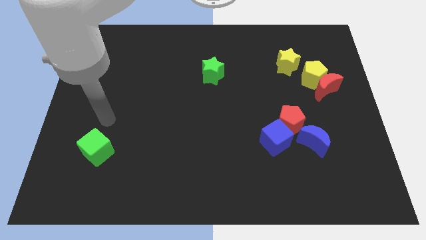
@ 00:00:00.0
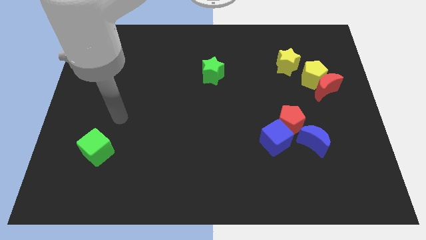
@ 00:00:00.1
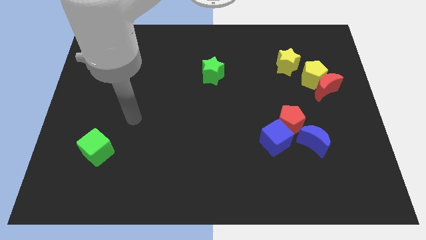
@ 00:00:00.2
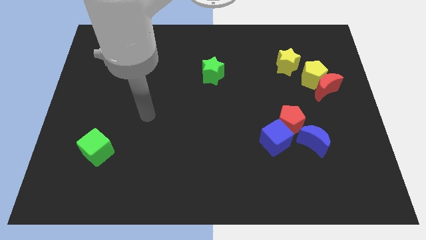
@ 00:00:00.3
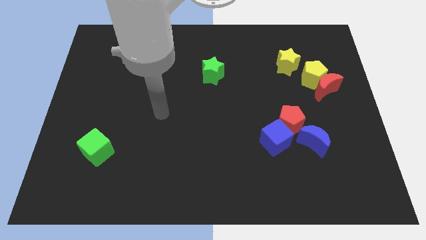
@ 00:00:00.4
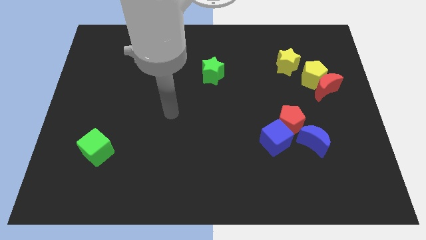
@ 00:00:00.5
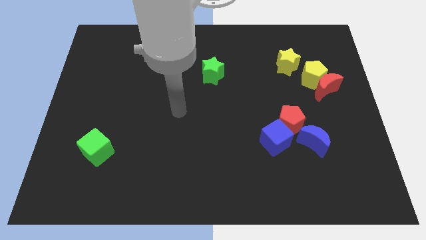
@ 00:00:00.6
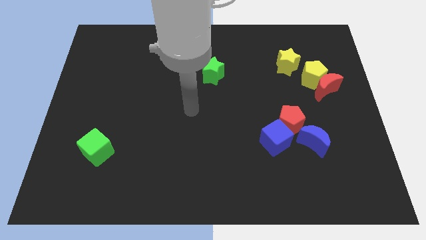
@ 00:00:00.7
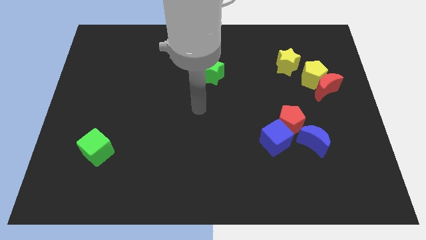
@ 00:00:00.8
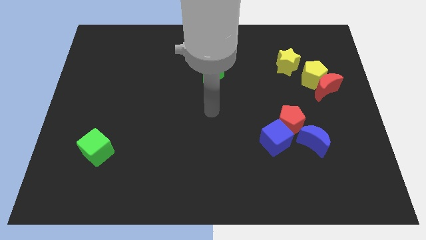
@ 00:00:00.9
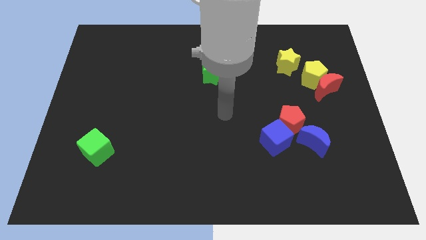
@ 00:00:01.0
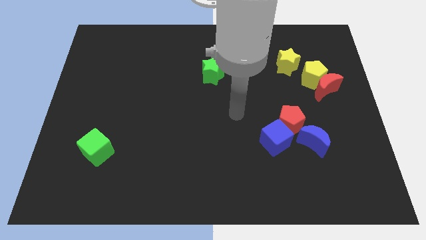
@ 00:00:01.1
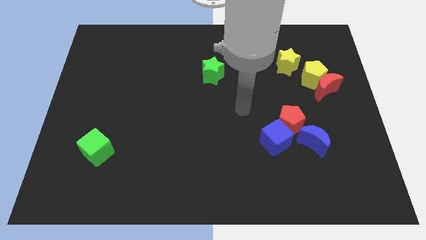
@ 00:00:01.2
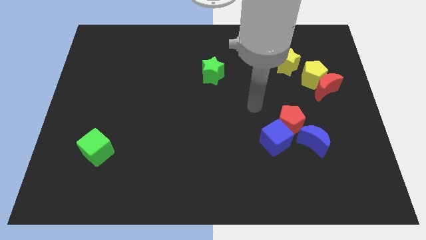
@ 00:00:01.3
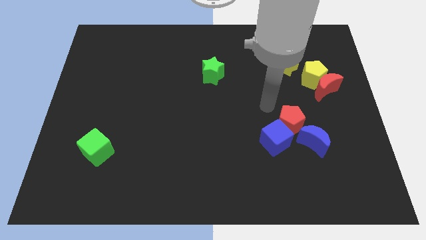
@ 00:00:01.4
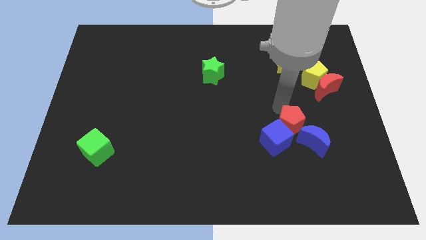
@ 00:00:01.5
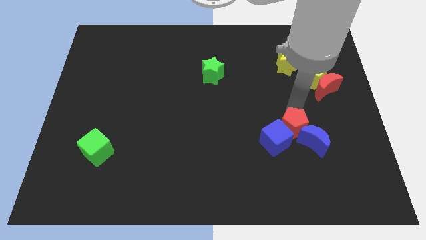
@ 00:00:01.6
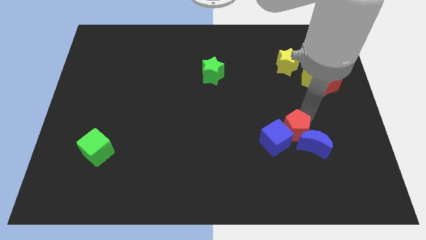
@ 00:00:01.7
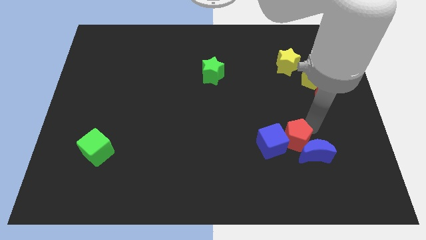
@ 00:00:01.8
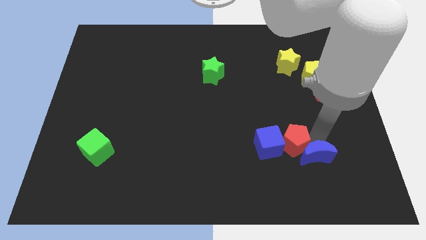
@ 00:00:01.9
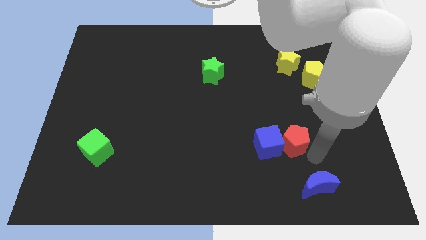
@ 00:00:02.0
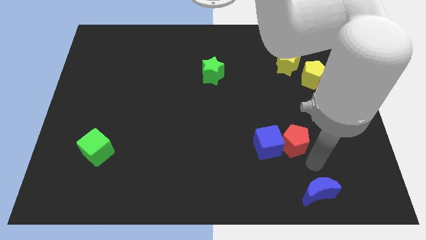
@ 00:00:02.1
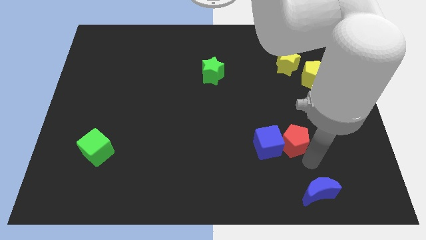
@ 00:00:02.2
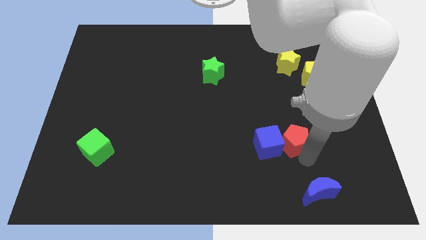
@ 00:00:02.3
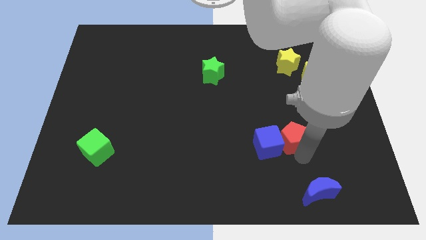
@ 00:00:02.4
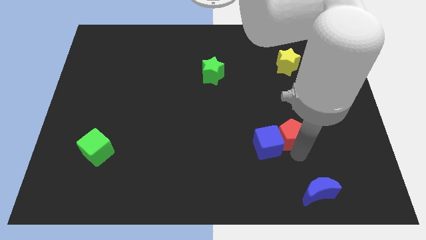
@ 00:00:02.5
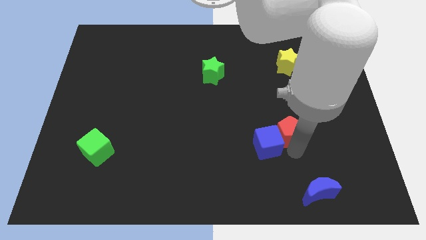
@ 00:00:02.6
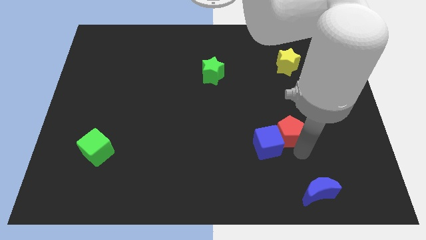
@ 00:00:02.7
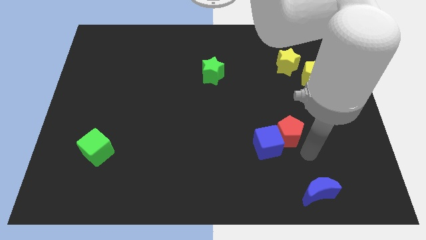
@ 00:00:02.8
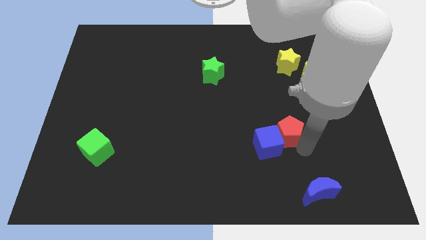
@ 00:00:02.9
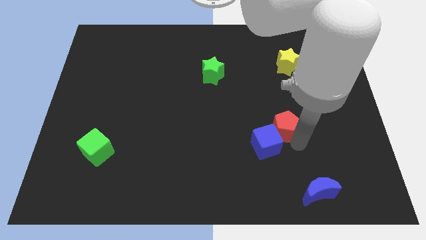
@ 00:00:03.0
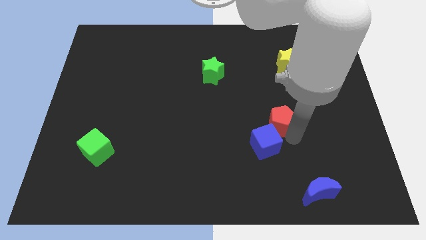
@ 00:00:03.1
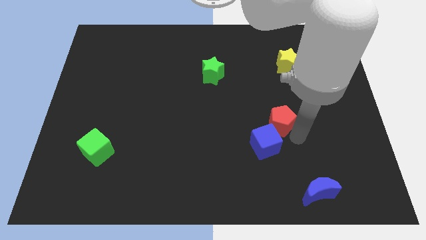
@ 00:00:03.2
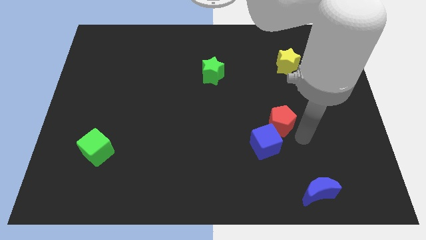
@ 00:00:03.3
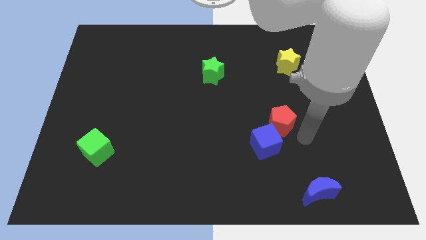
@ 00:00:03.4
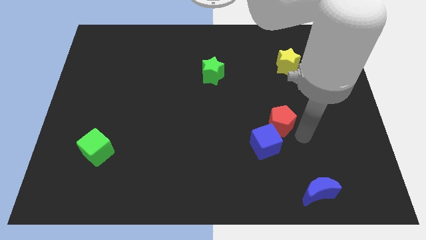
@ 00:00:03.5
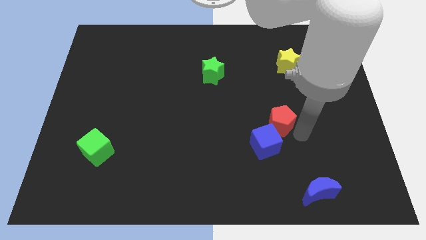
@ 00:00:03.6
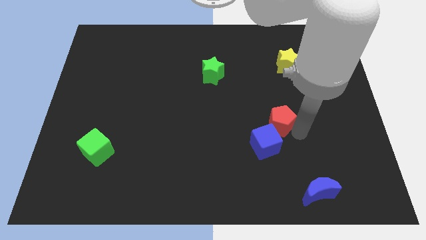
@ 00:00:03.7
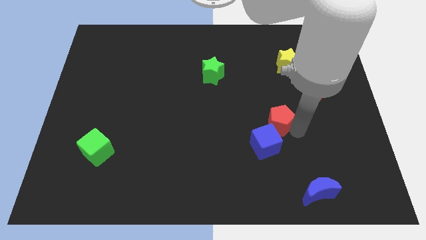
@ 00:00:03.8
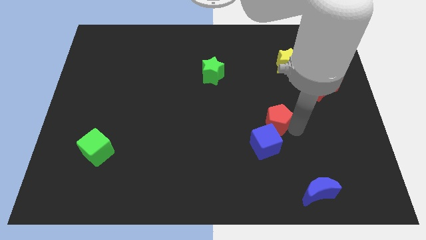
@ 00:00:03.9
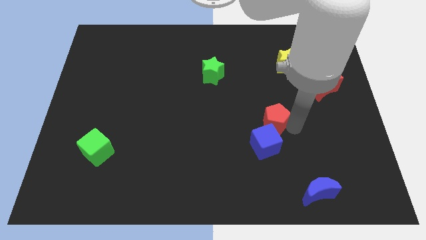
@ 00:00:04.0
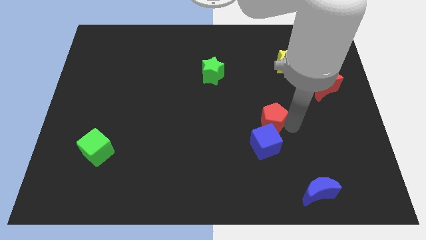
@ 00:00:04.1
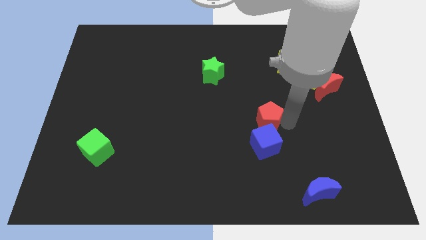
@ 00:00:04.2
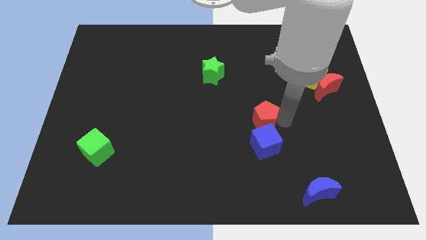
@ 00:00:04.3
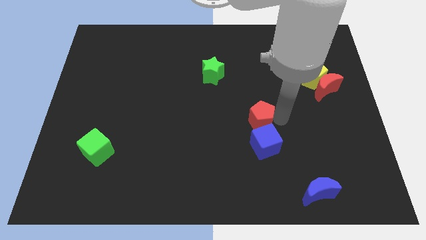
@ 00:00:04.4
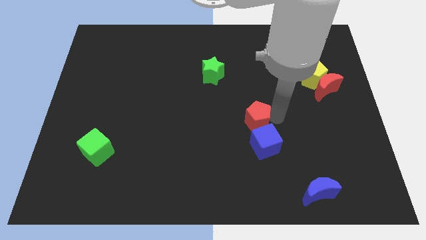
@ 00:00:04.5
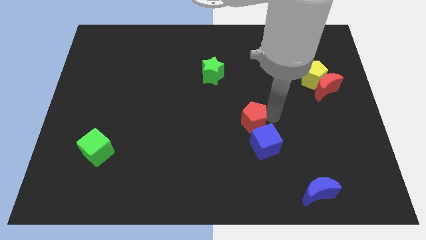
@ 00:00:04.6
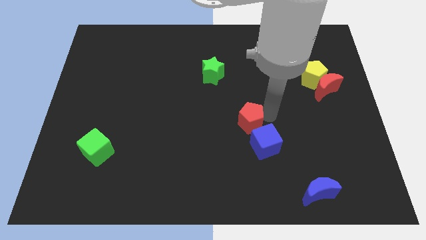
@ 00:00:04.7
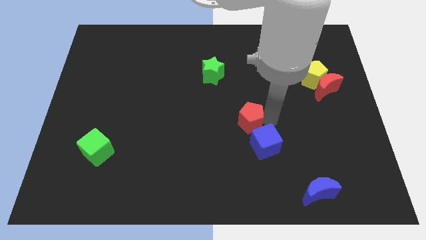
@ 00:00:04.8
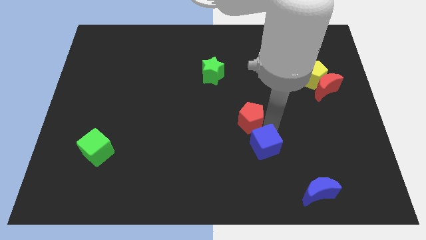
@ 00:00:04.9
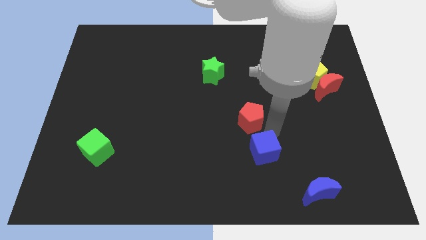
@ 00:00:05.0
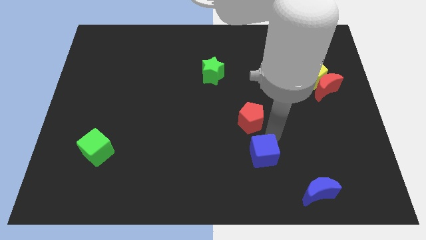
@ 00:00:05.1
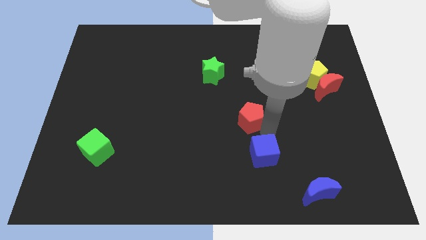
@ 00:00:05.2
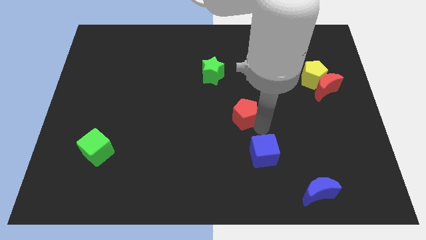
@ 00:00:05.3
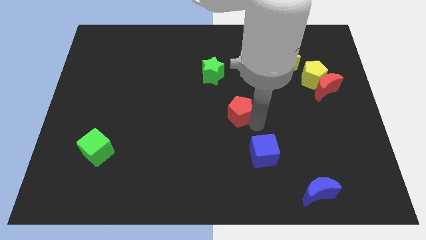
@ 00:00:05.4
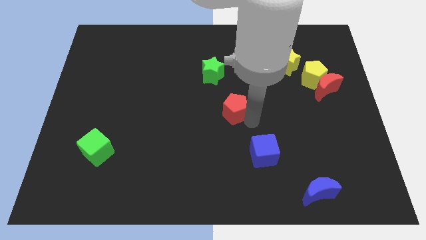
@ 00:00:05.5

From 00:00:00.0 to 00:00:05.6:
move the red pentagon to the bottom side of the green star

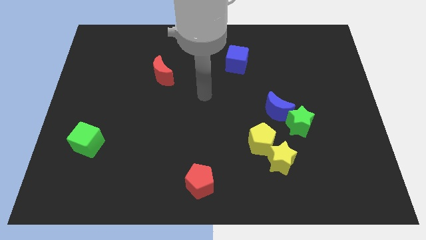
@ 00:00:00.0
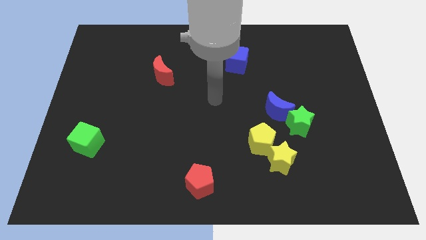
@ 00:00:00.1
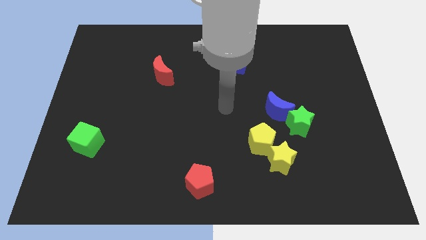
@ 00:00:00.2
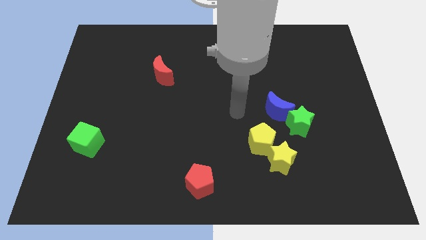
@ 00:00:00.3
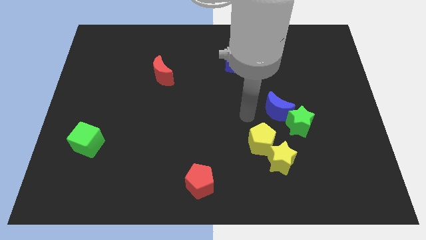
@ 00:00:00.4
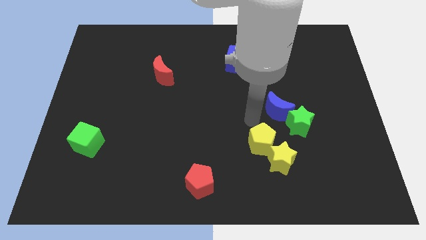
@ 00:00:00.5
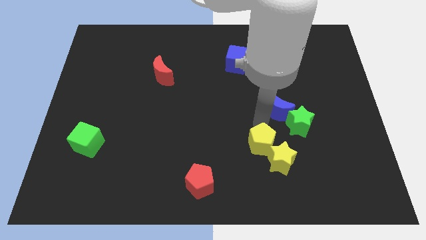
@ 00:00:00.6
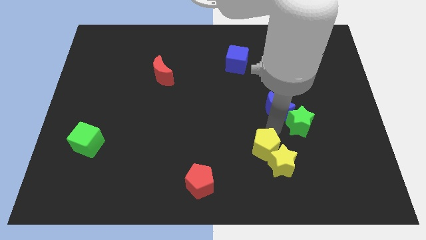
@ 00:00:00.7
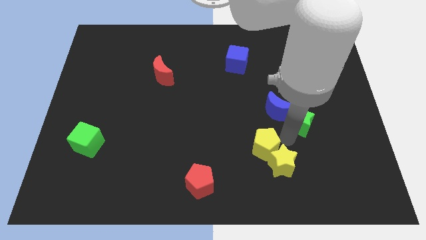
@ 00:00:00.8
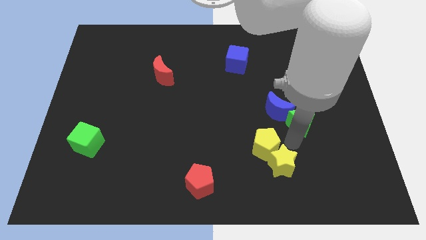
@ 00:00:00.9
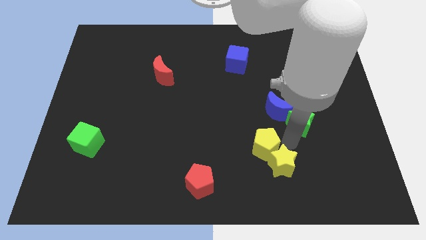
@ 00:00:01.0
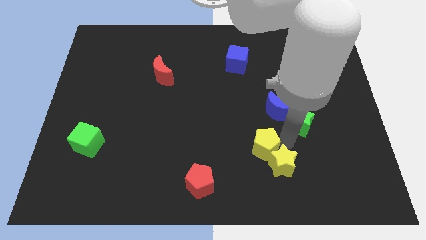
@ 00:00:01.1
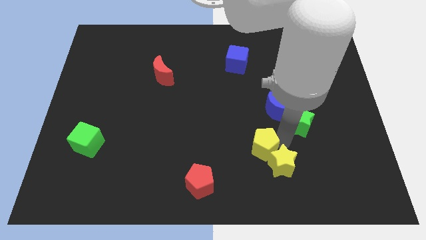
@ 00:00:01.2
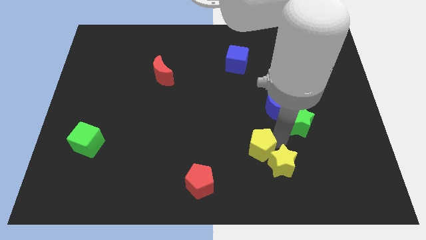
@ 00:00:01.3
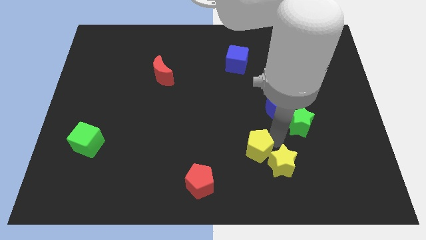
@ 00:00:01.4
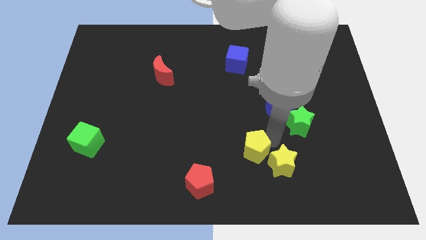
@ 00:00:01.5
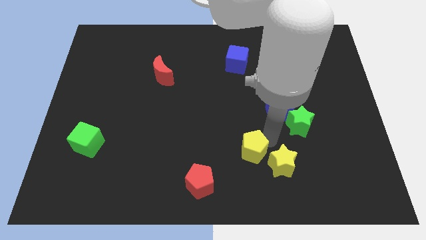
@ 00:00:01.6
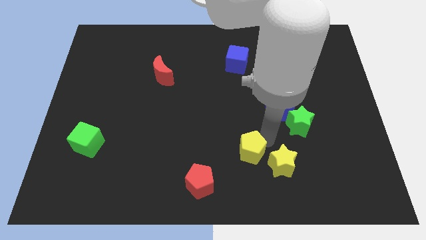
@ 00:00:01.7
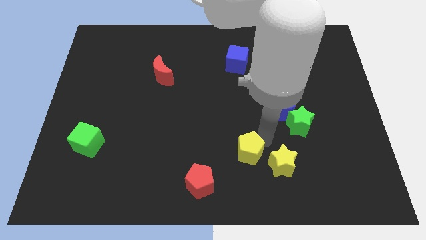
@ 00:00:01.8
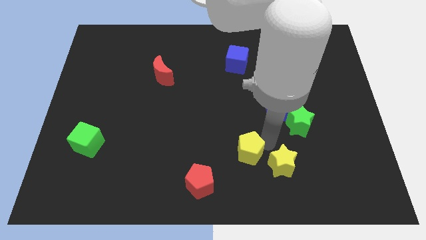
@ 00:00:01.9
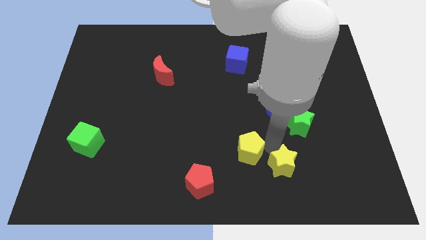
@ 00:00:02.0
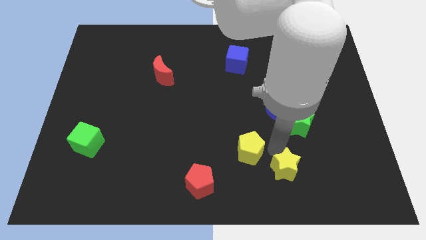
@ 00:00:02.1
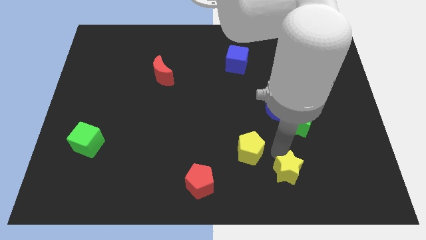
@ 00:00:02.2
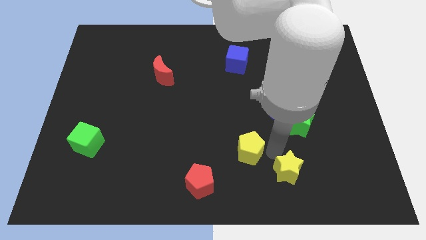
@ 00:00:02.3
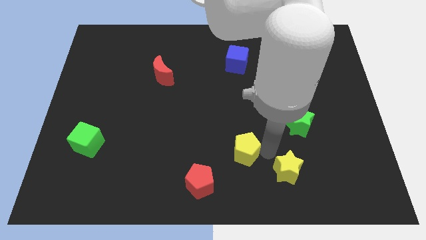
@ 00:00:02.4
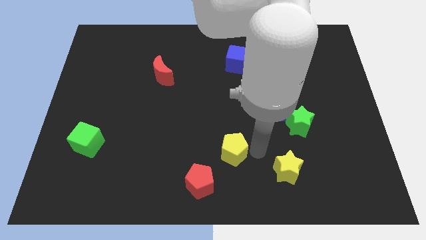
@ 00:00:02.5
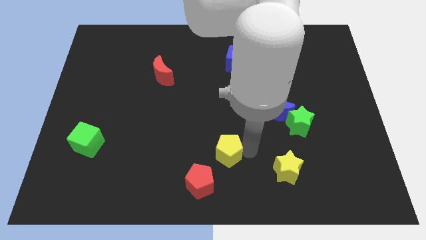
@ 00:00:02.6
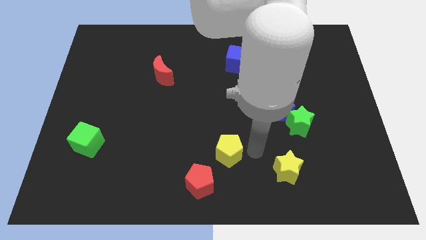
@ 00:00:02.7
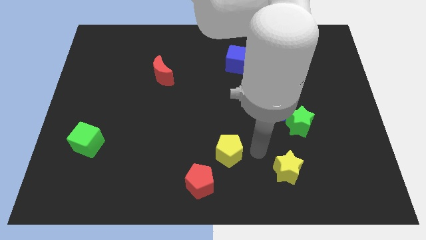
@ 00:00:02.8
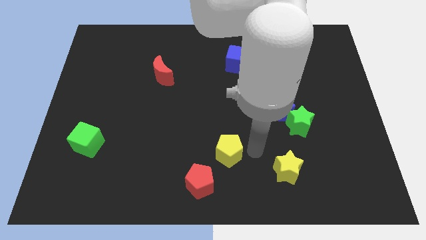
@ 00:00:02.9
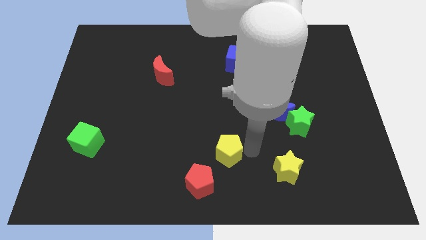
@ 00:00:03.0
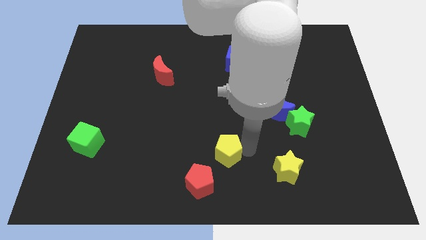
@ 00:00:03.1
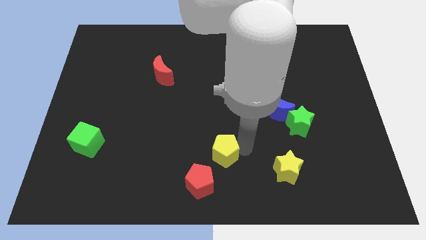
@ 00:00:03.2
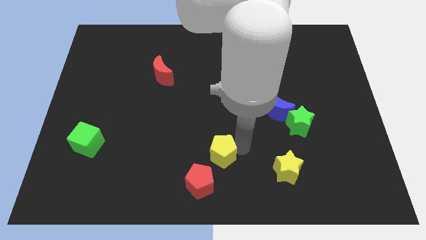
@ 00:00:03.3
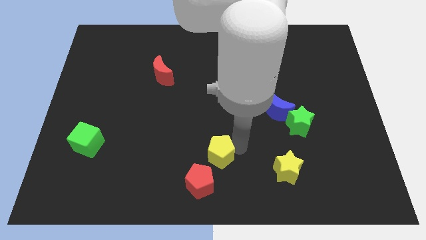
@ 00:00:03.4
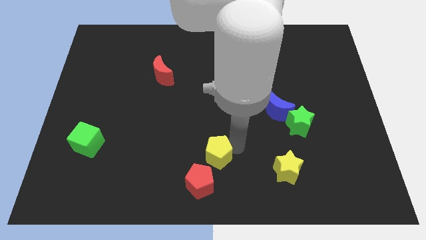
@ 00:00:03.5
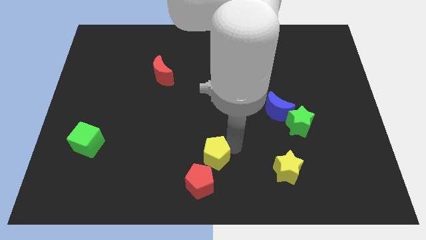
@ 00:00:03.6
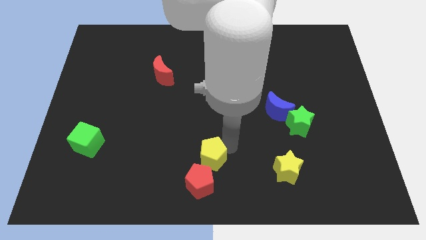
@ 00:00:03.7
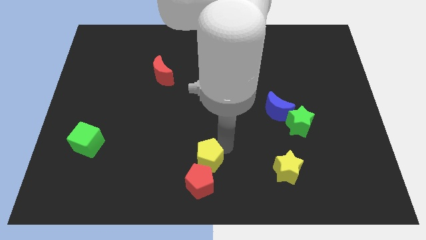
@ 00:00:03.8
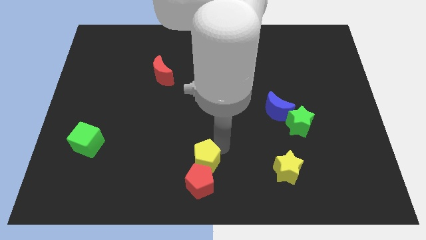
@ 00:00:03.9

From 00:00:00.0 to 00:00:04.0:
put the yellow pentagon to the top left side of the red pentagon
